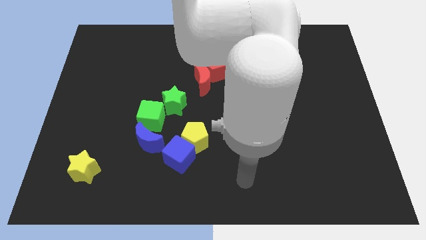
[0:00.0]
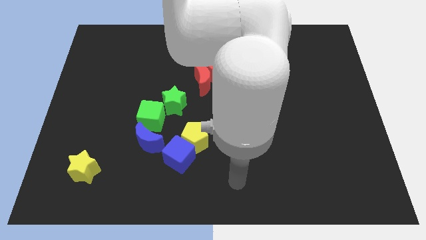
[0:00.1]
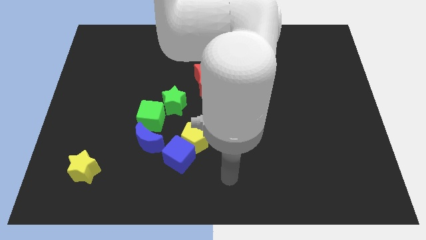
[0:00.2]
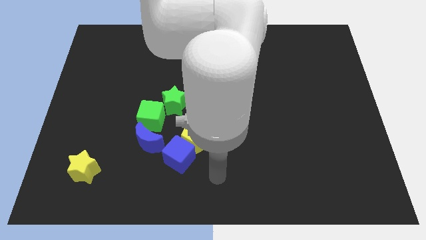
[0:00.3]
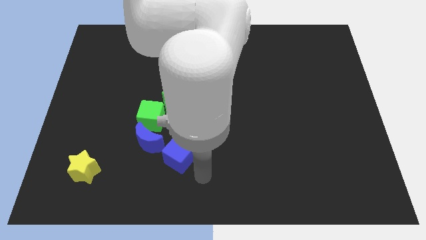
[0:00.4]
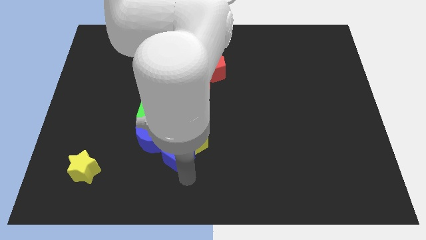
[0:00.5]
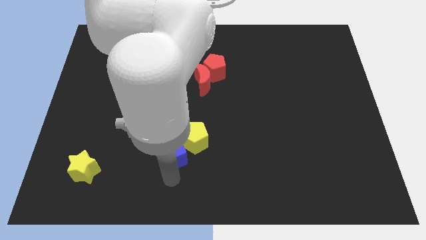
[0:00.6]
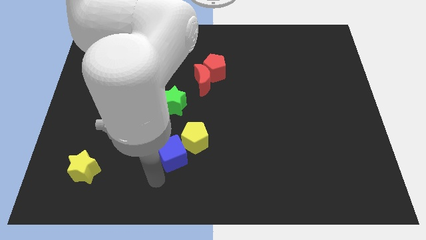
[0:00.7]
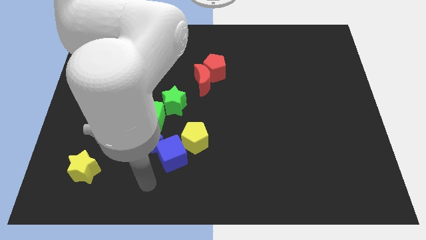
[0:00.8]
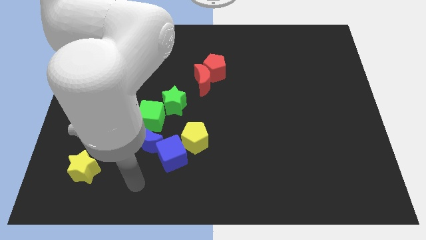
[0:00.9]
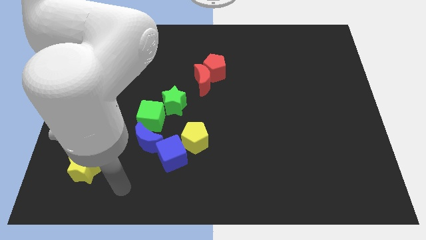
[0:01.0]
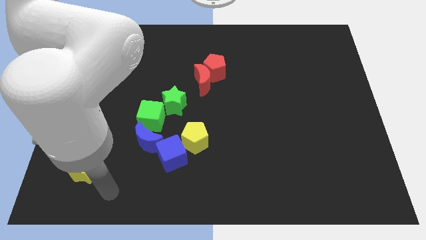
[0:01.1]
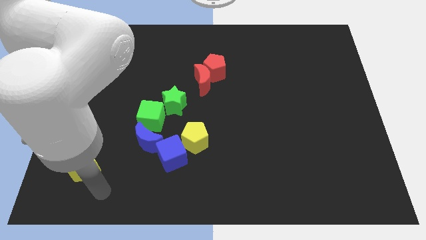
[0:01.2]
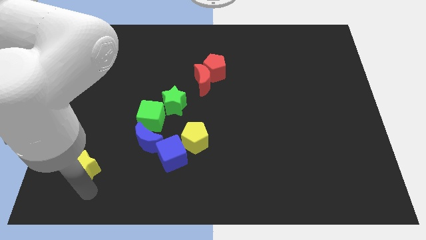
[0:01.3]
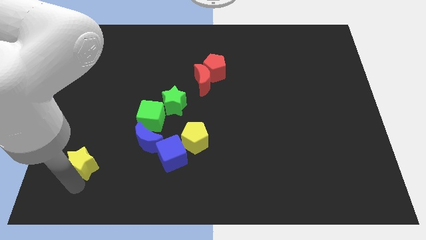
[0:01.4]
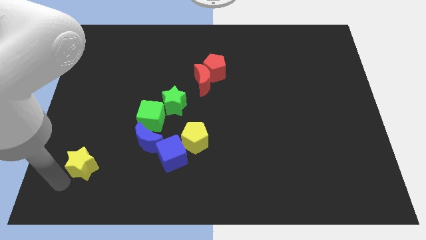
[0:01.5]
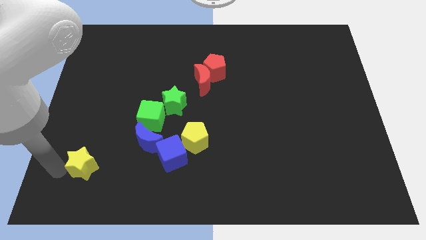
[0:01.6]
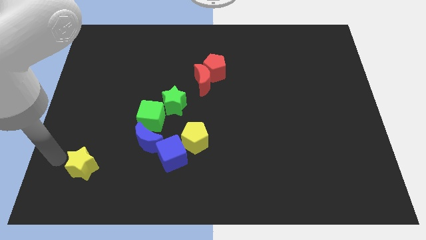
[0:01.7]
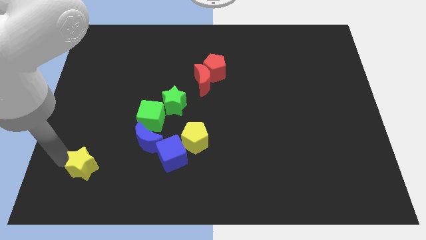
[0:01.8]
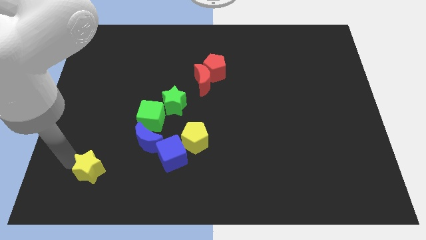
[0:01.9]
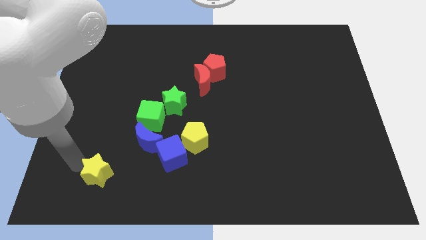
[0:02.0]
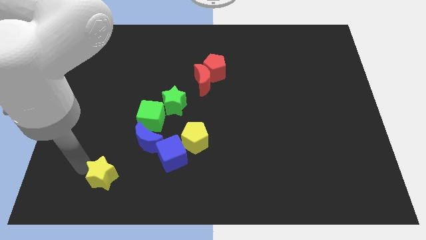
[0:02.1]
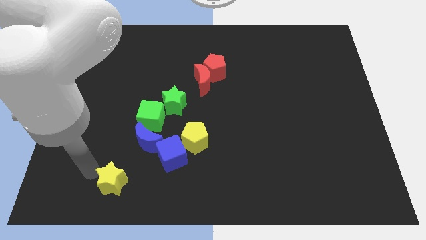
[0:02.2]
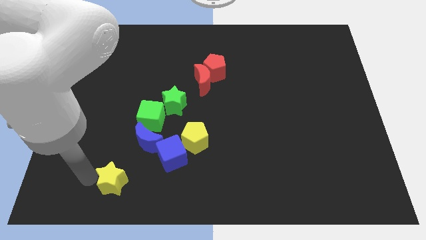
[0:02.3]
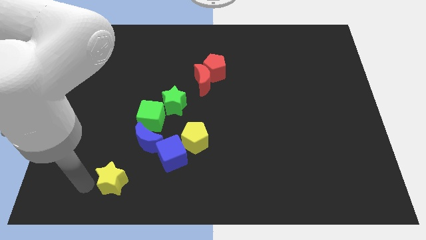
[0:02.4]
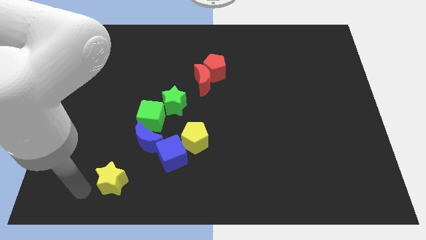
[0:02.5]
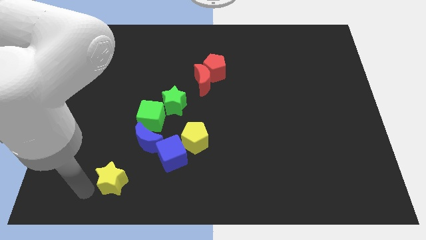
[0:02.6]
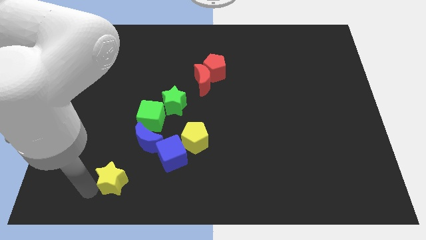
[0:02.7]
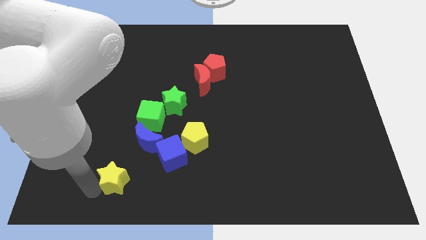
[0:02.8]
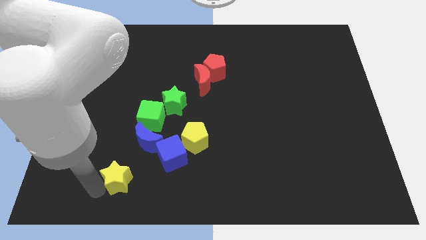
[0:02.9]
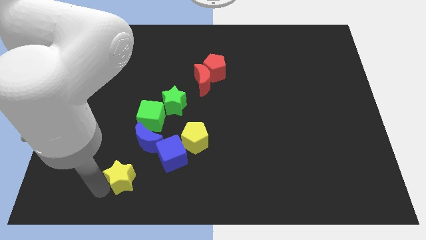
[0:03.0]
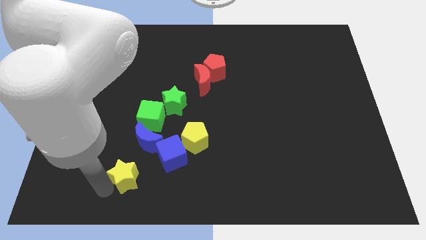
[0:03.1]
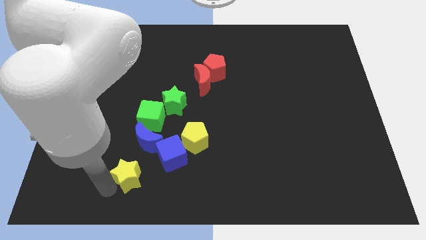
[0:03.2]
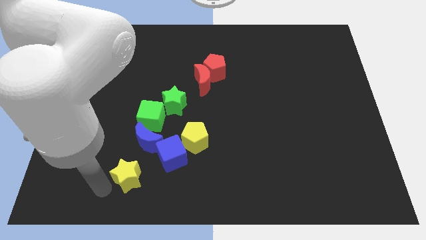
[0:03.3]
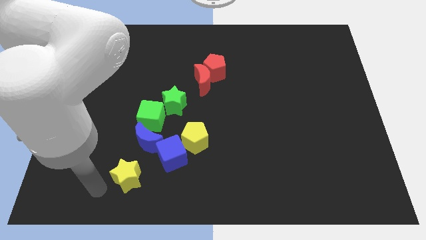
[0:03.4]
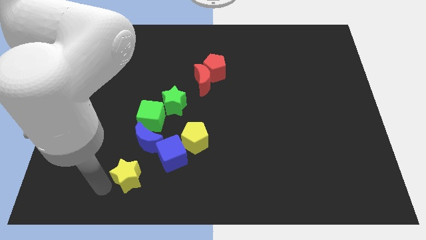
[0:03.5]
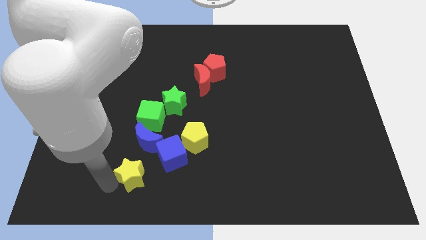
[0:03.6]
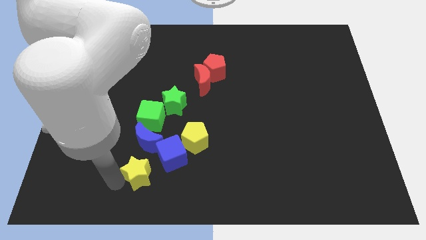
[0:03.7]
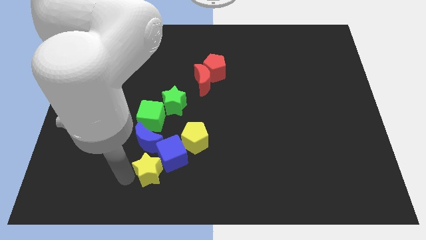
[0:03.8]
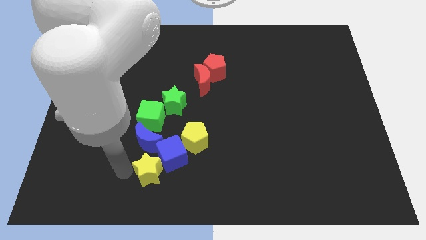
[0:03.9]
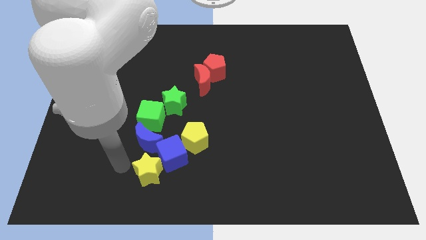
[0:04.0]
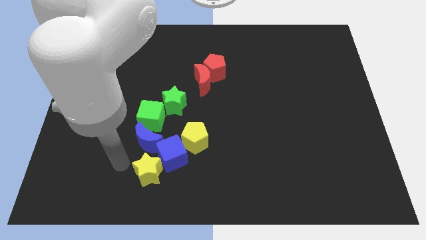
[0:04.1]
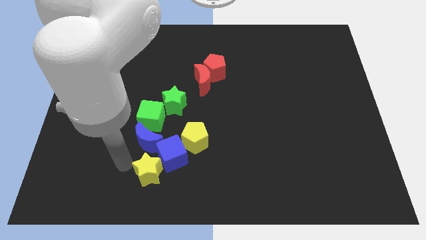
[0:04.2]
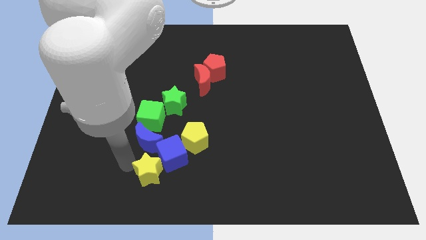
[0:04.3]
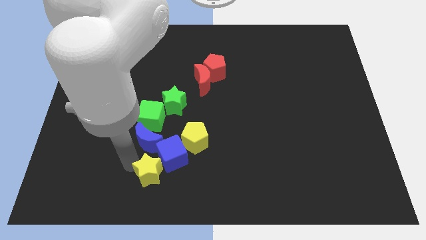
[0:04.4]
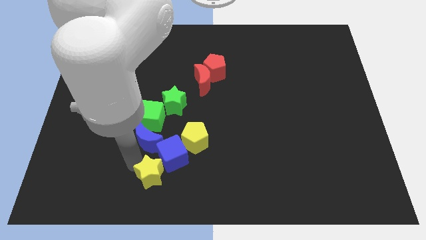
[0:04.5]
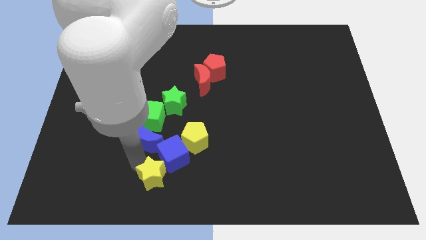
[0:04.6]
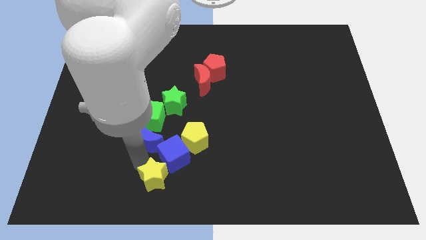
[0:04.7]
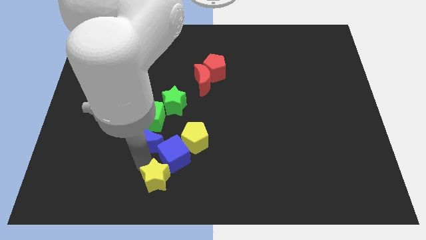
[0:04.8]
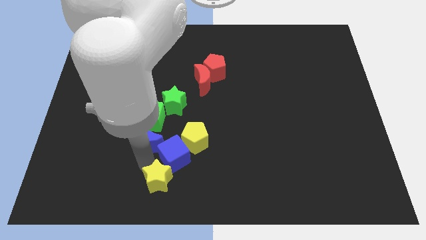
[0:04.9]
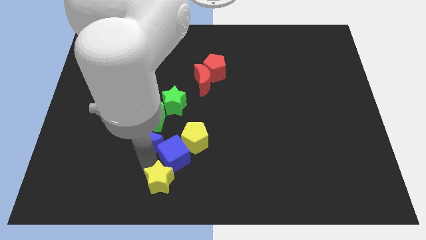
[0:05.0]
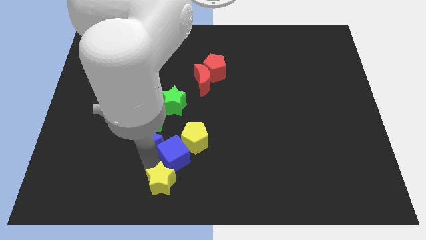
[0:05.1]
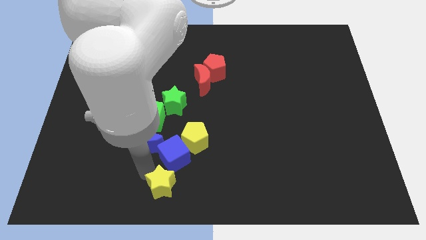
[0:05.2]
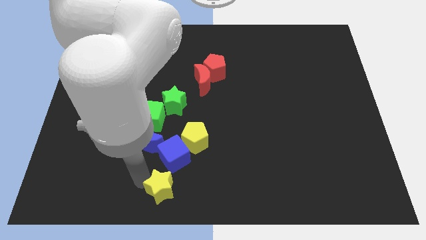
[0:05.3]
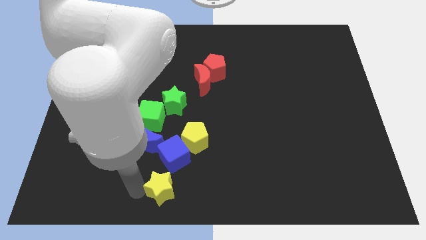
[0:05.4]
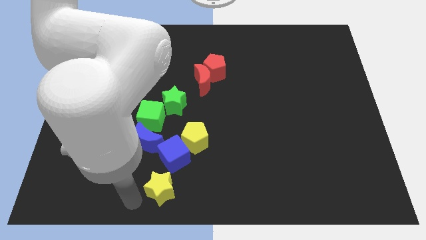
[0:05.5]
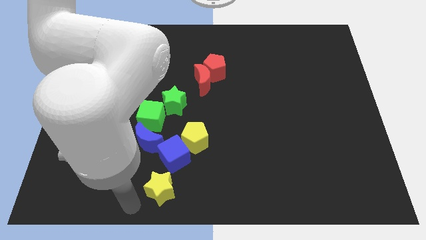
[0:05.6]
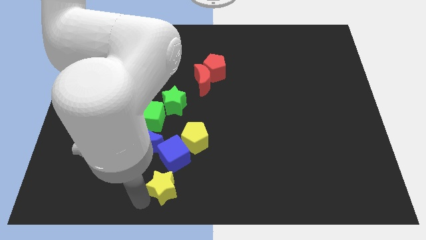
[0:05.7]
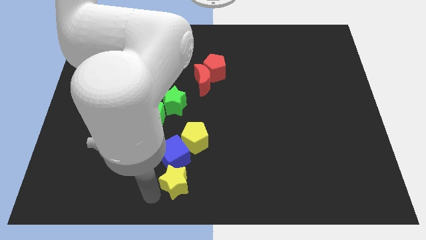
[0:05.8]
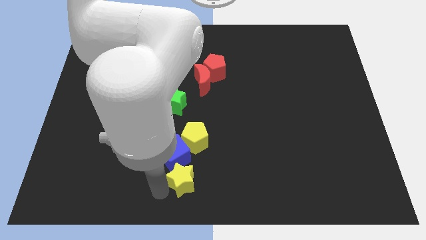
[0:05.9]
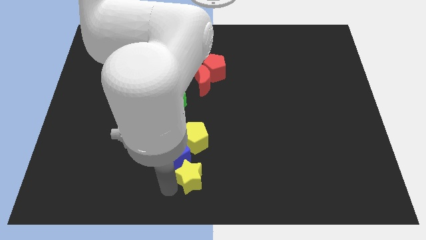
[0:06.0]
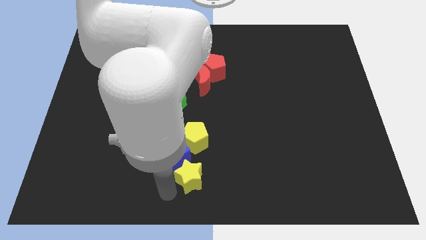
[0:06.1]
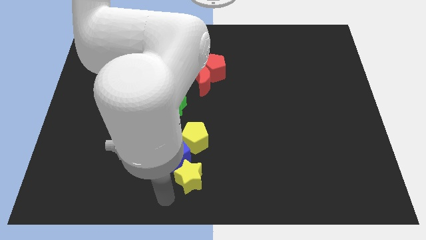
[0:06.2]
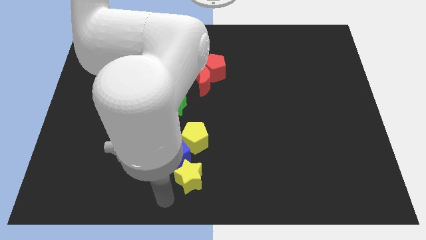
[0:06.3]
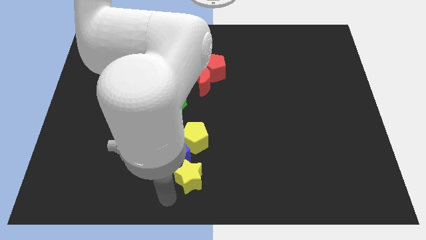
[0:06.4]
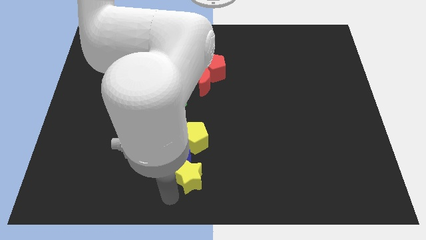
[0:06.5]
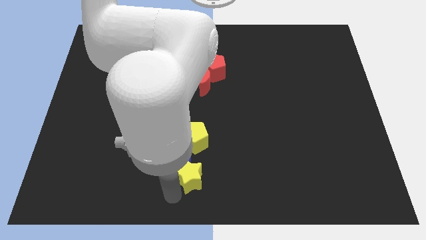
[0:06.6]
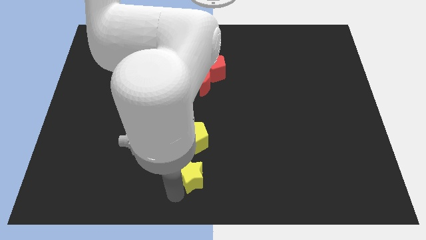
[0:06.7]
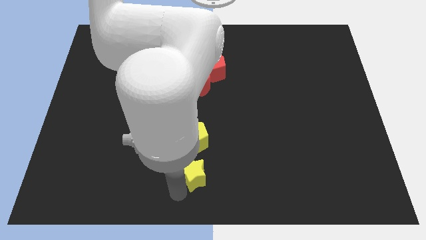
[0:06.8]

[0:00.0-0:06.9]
slide the yellow star right of the blue cube

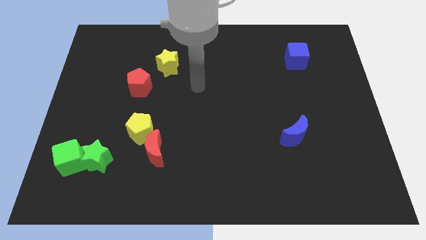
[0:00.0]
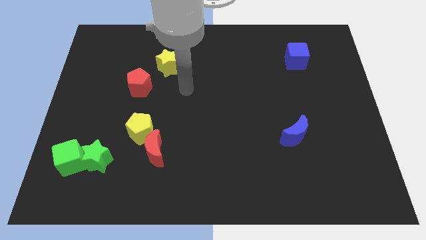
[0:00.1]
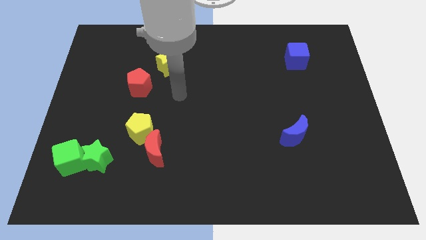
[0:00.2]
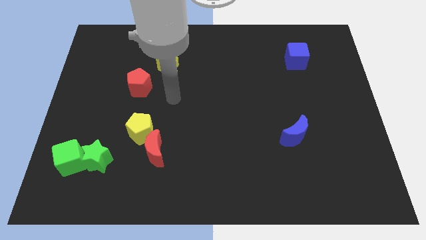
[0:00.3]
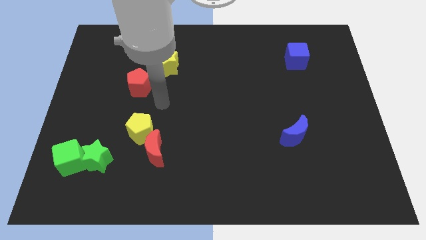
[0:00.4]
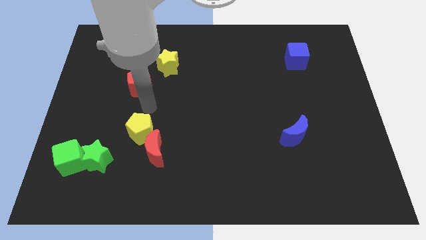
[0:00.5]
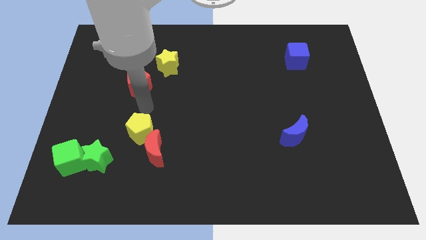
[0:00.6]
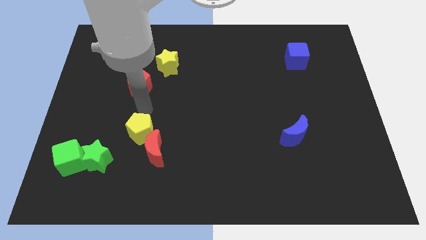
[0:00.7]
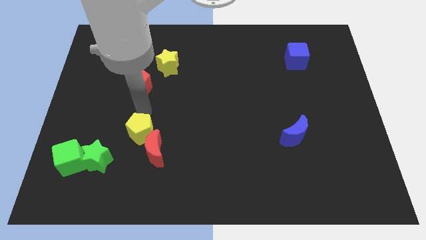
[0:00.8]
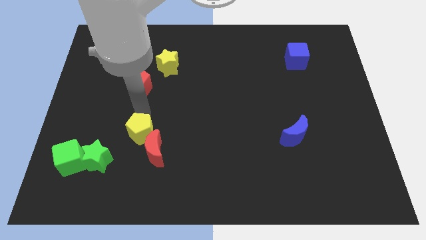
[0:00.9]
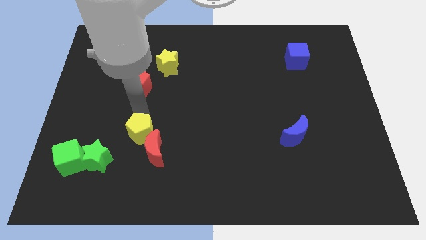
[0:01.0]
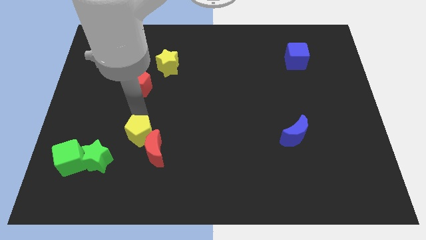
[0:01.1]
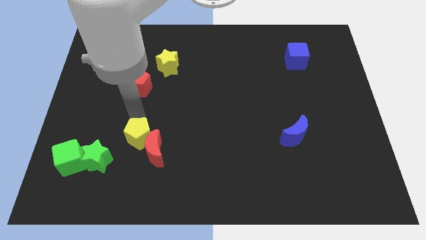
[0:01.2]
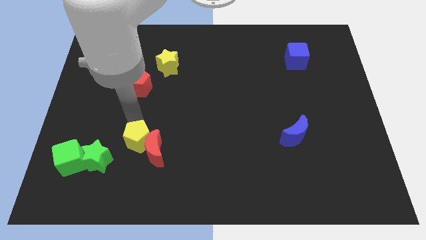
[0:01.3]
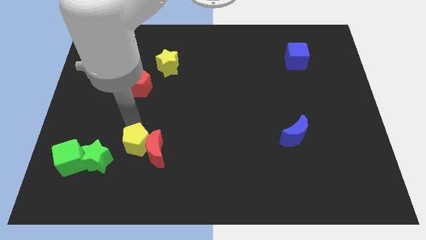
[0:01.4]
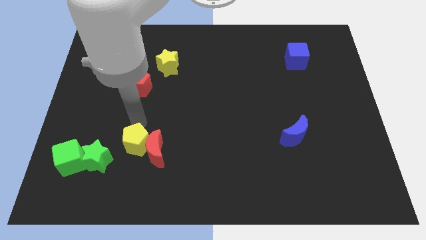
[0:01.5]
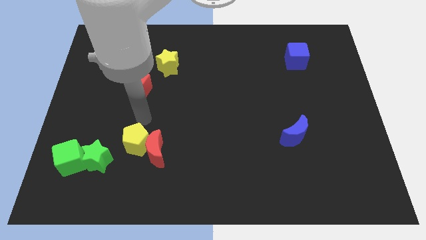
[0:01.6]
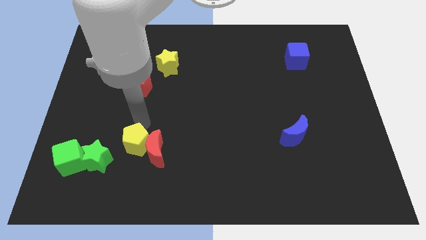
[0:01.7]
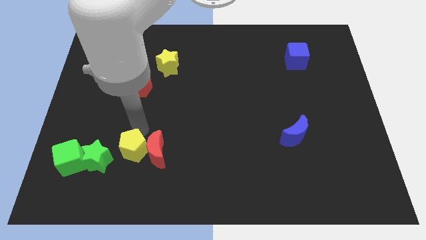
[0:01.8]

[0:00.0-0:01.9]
put the yellow pentagon to the bottom left of the red moon
